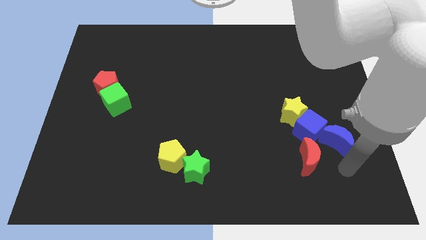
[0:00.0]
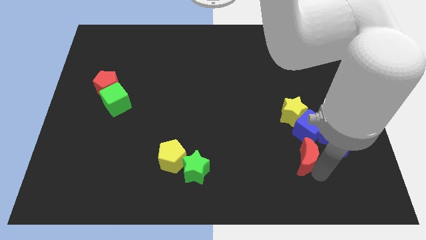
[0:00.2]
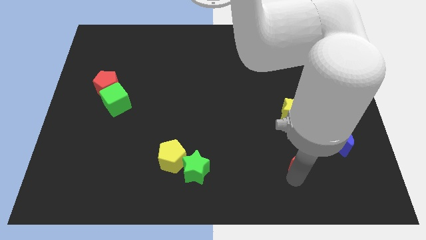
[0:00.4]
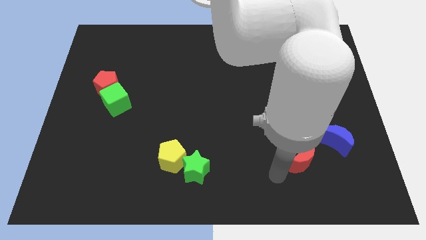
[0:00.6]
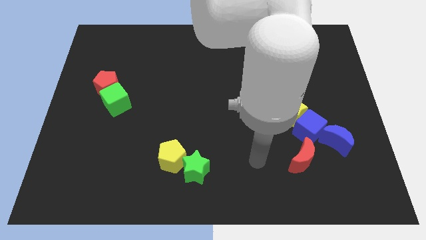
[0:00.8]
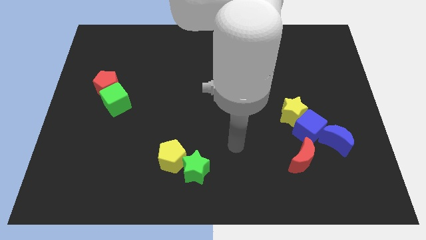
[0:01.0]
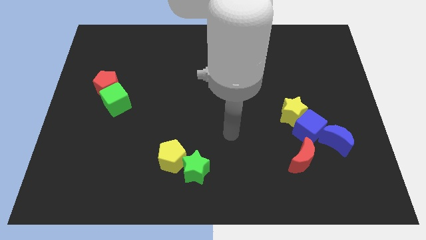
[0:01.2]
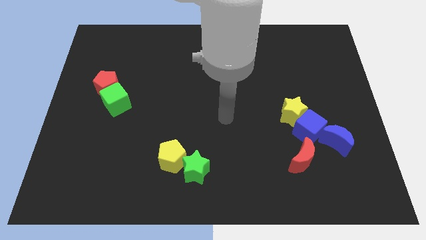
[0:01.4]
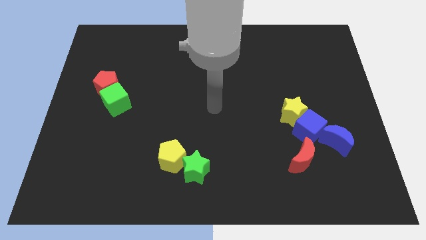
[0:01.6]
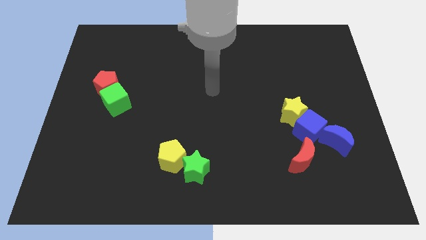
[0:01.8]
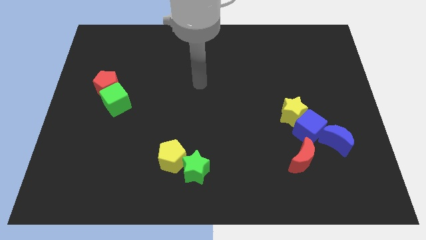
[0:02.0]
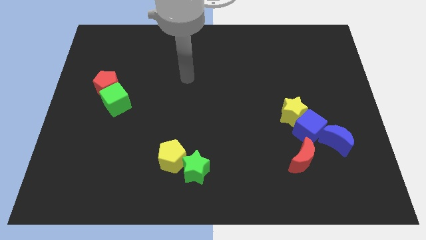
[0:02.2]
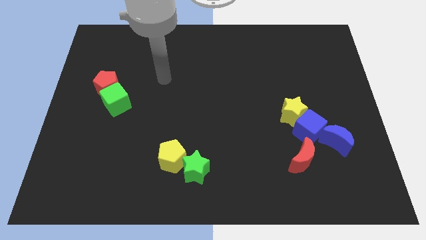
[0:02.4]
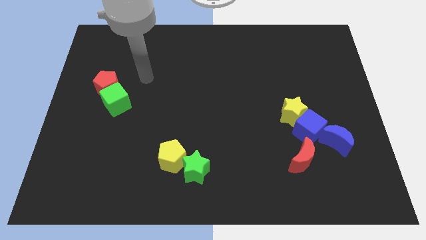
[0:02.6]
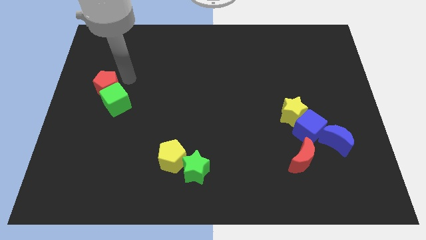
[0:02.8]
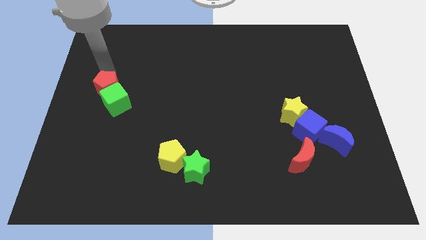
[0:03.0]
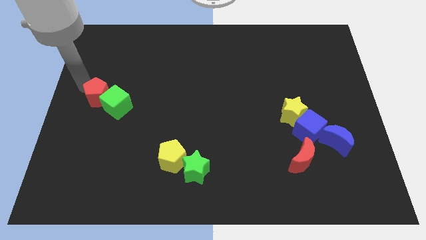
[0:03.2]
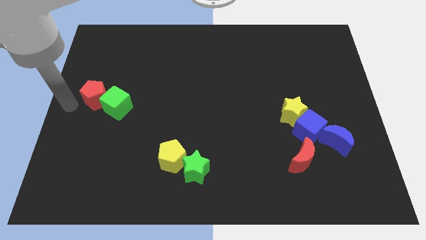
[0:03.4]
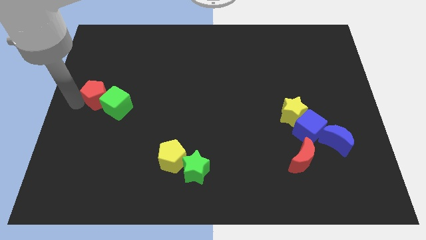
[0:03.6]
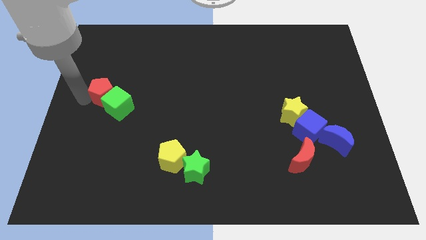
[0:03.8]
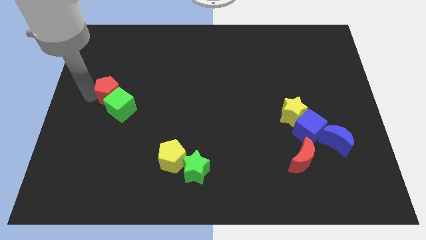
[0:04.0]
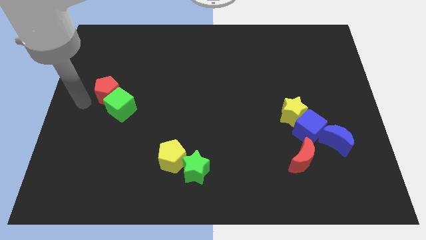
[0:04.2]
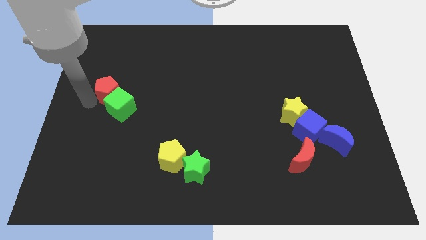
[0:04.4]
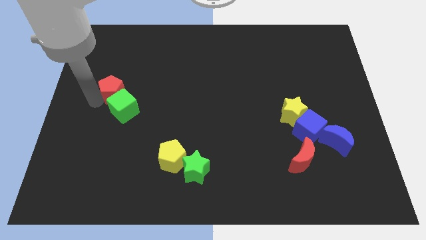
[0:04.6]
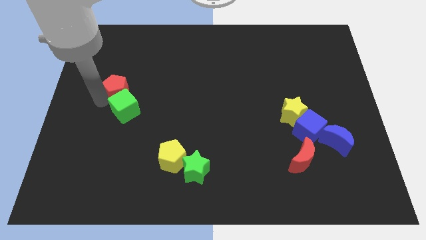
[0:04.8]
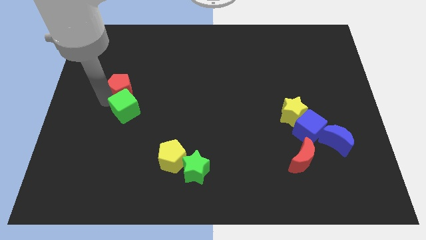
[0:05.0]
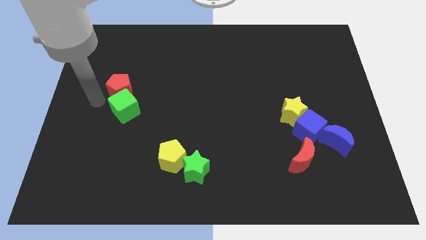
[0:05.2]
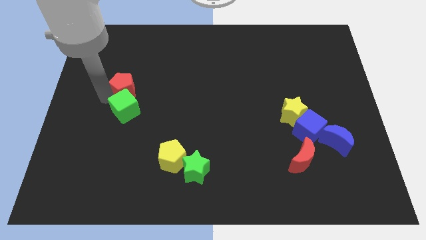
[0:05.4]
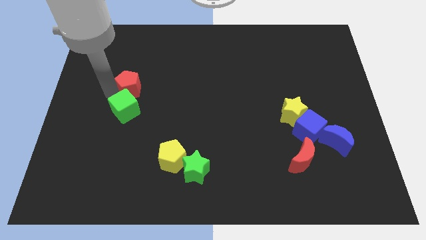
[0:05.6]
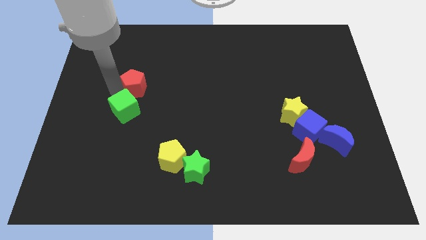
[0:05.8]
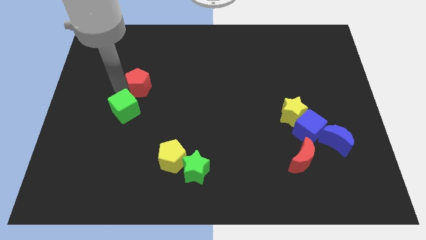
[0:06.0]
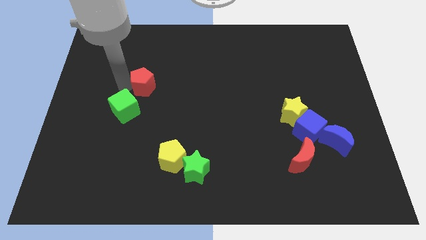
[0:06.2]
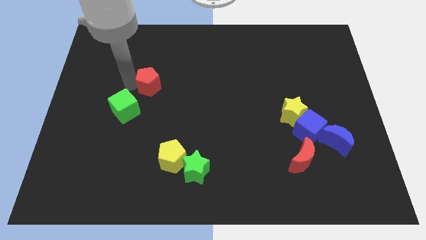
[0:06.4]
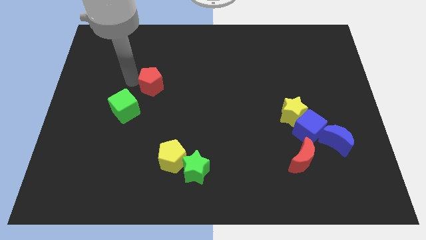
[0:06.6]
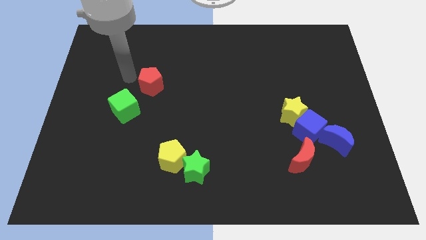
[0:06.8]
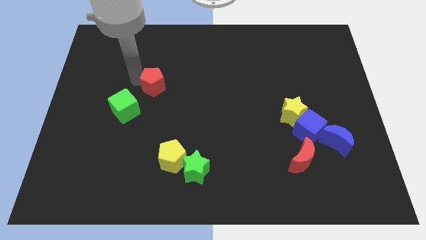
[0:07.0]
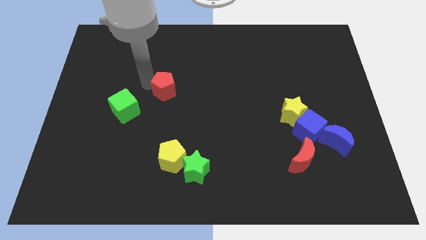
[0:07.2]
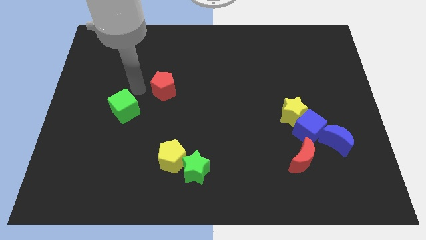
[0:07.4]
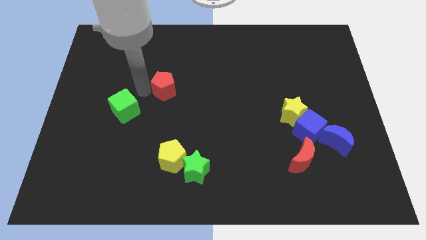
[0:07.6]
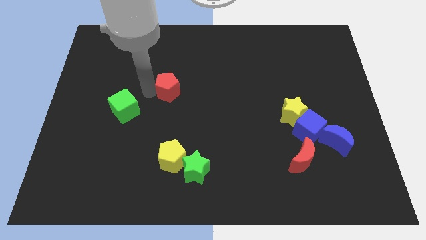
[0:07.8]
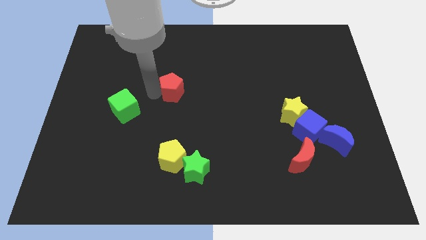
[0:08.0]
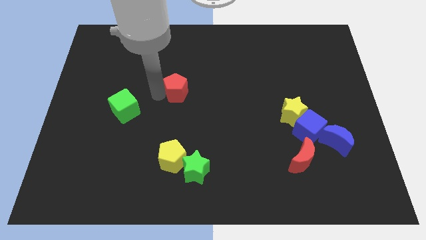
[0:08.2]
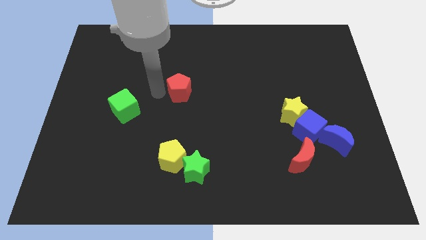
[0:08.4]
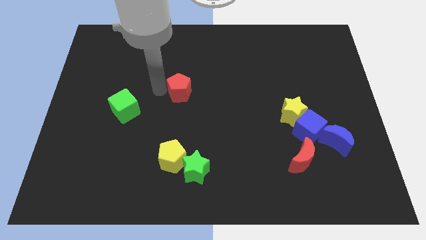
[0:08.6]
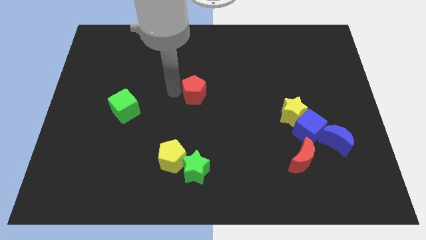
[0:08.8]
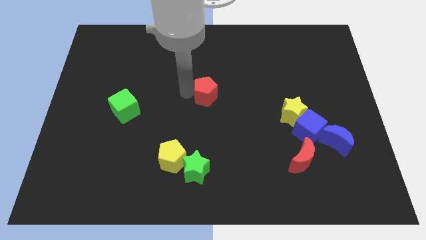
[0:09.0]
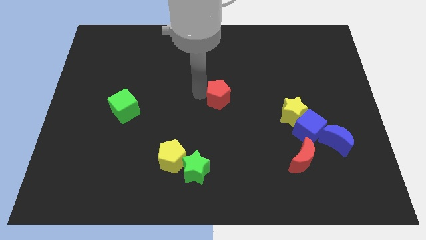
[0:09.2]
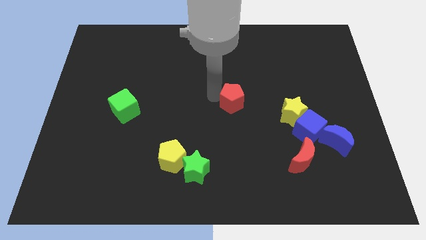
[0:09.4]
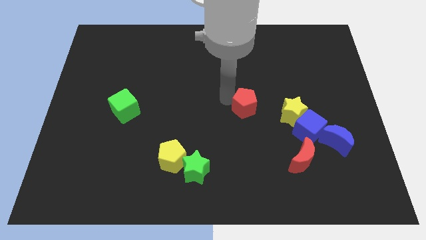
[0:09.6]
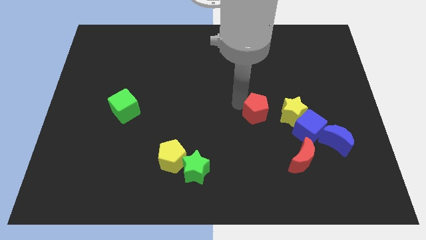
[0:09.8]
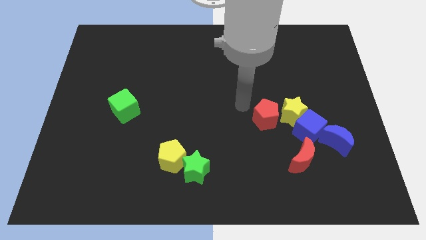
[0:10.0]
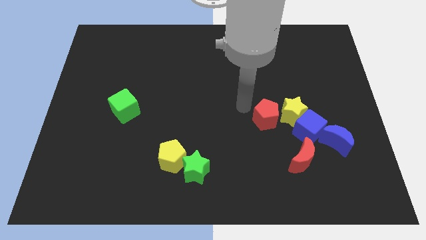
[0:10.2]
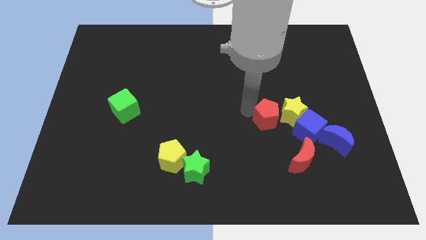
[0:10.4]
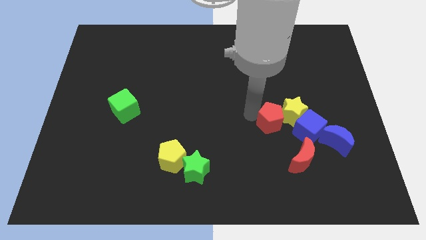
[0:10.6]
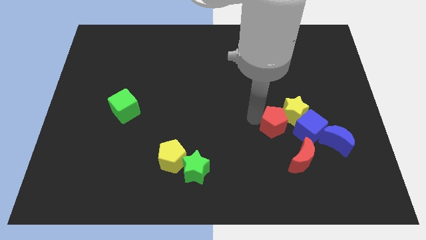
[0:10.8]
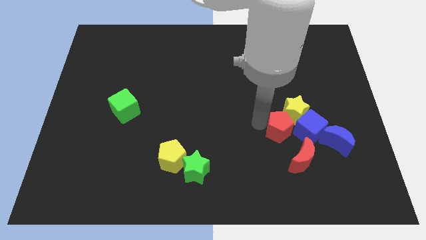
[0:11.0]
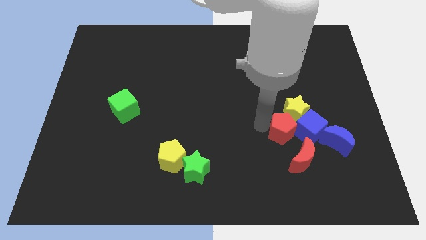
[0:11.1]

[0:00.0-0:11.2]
slide the red pentagon next to the blue cube

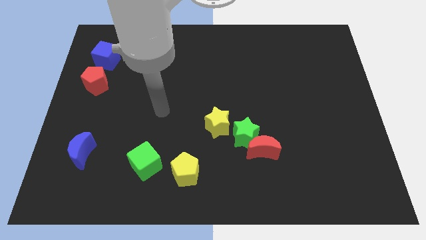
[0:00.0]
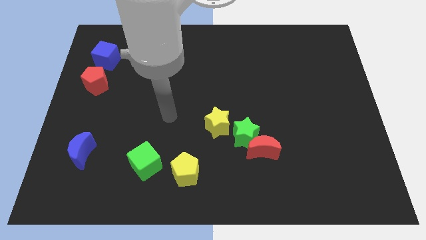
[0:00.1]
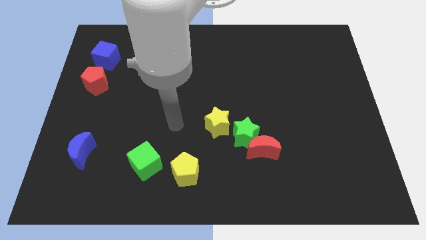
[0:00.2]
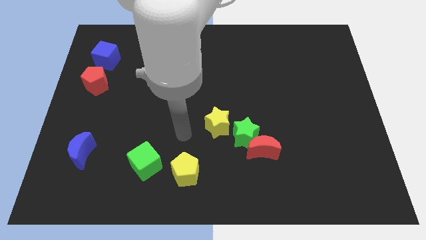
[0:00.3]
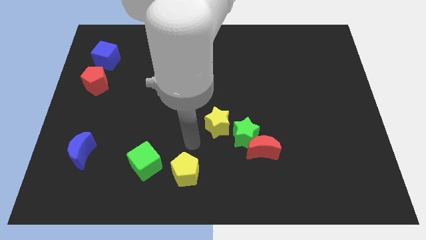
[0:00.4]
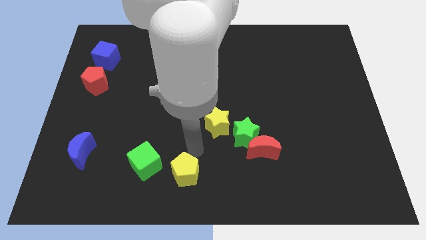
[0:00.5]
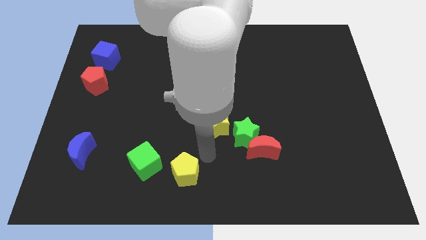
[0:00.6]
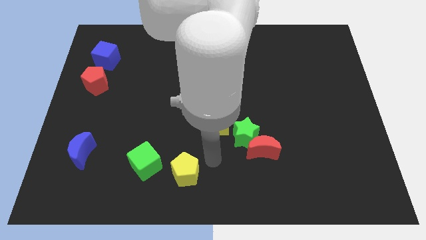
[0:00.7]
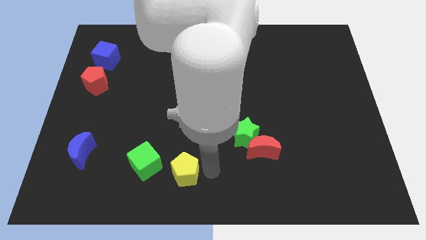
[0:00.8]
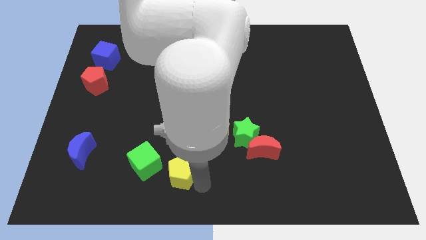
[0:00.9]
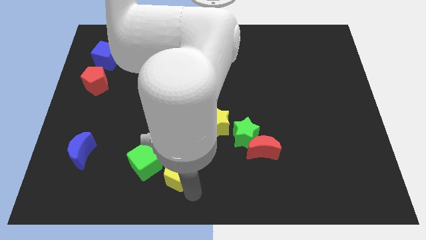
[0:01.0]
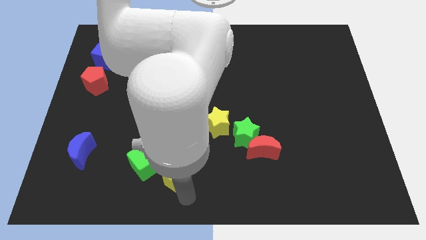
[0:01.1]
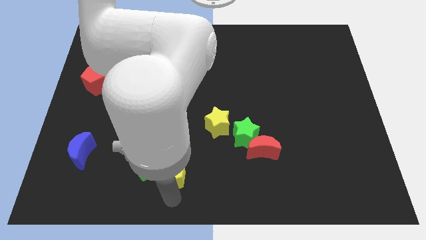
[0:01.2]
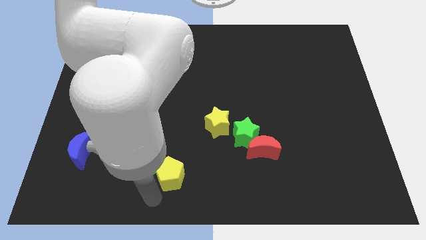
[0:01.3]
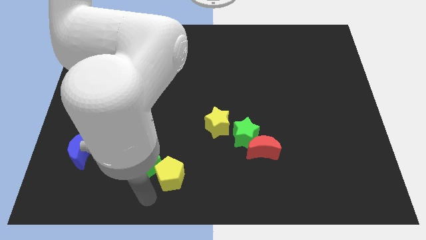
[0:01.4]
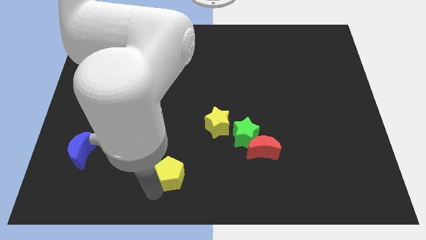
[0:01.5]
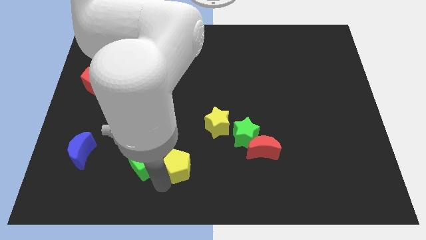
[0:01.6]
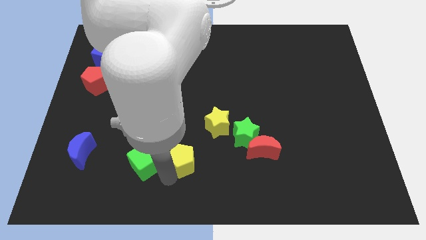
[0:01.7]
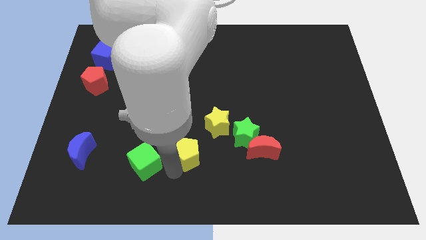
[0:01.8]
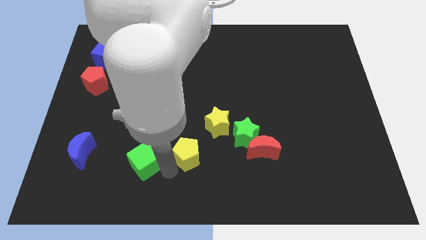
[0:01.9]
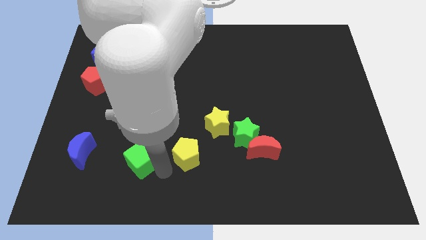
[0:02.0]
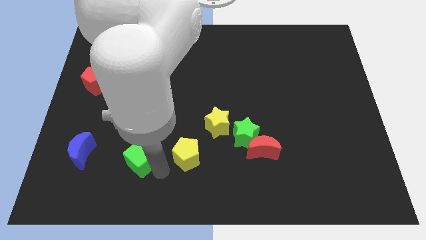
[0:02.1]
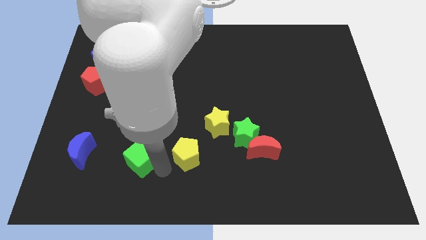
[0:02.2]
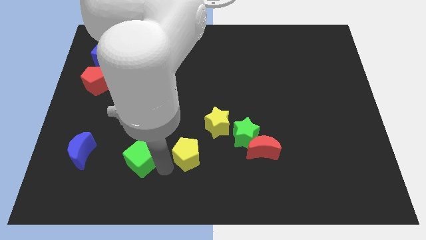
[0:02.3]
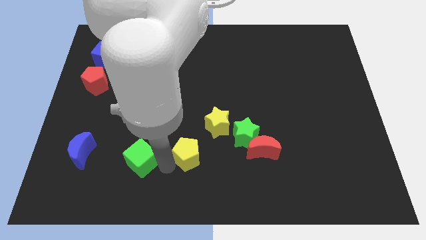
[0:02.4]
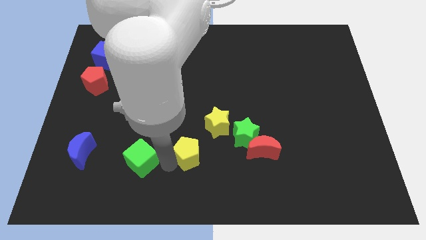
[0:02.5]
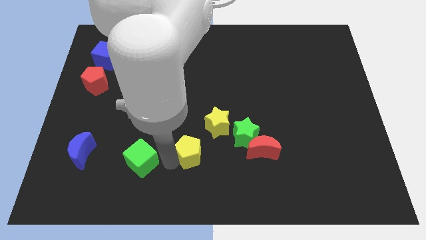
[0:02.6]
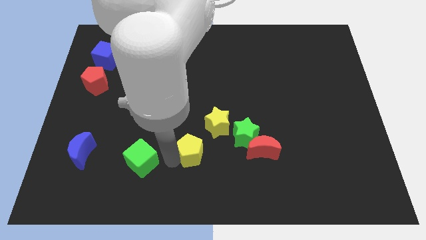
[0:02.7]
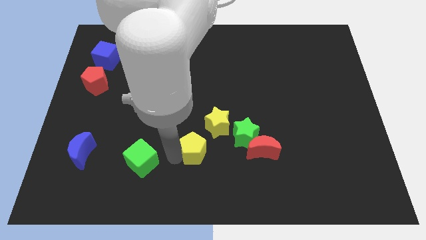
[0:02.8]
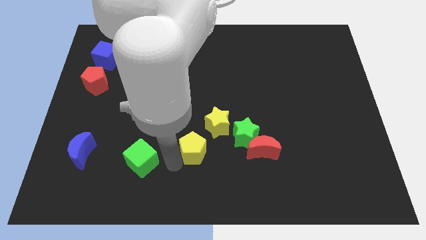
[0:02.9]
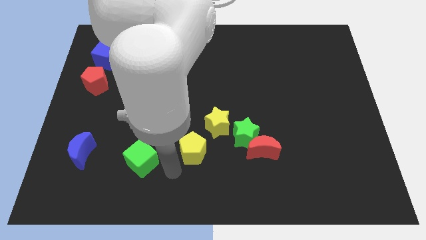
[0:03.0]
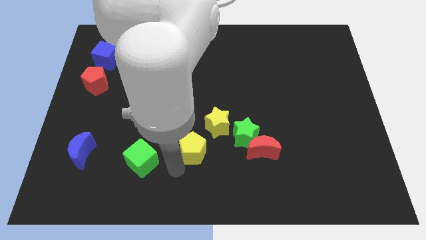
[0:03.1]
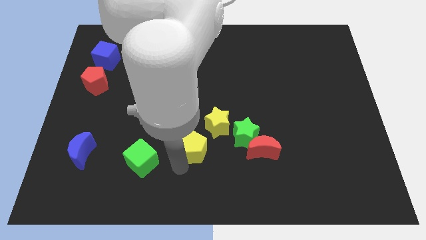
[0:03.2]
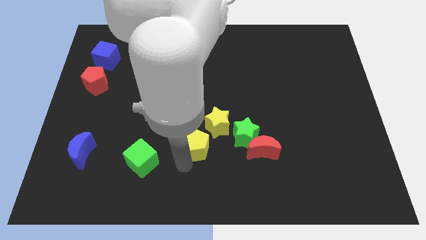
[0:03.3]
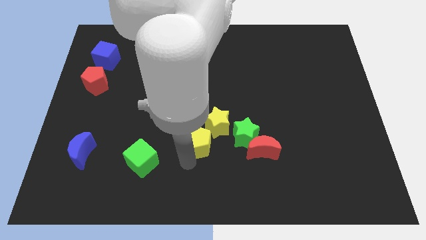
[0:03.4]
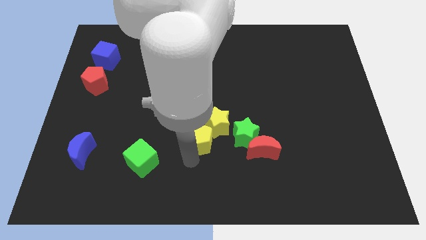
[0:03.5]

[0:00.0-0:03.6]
slide the yellow pentagon close to the yellow star
